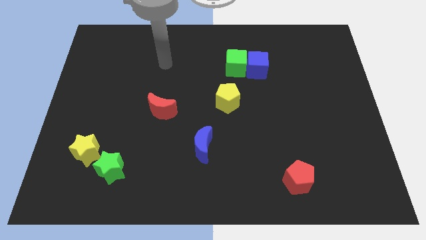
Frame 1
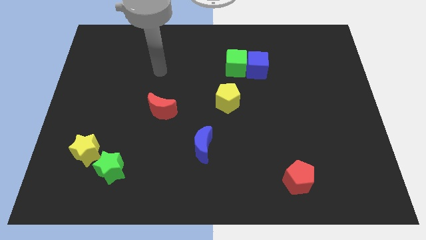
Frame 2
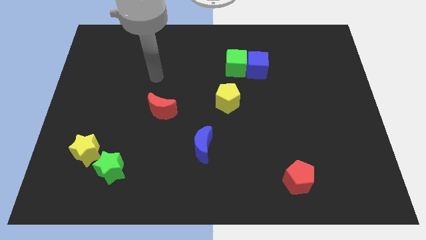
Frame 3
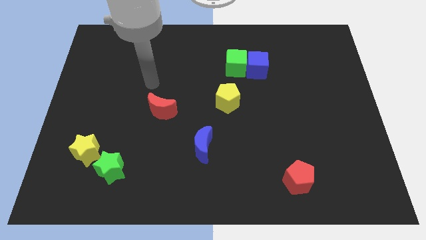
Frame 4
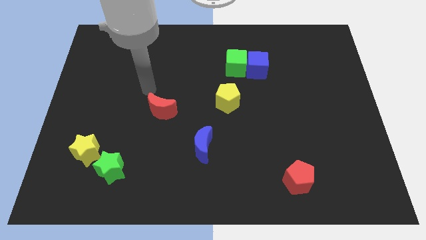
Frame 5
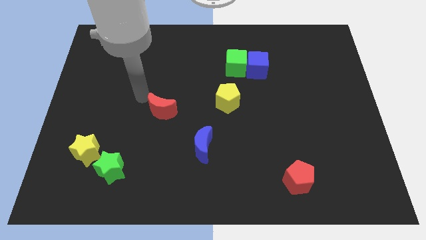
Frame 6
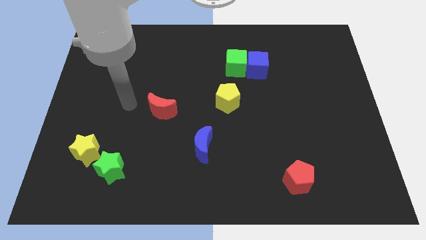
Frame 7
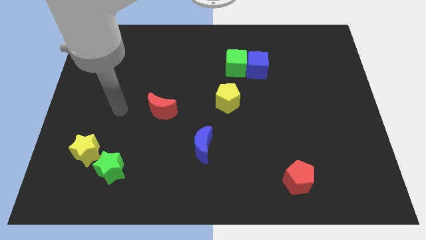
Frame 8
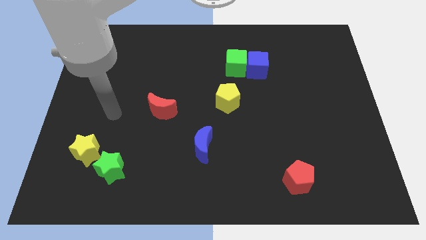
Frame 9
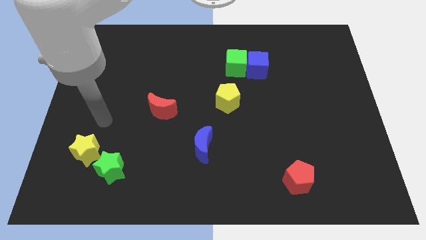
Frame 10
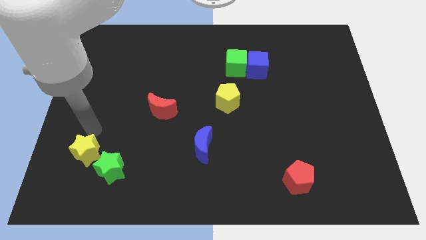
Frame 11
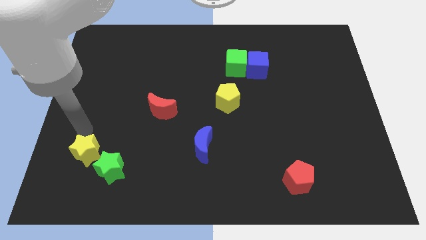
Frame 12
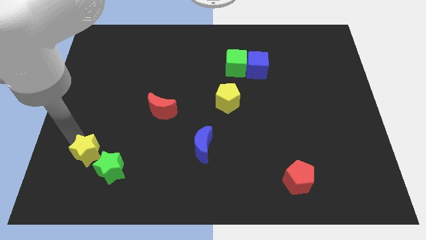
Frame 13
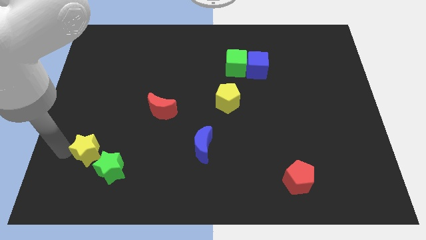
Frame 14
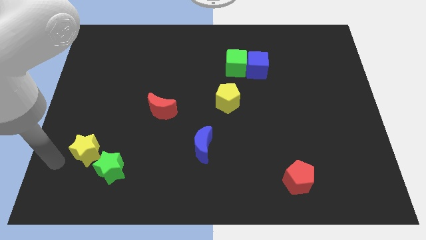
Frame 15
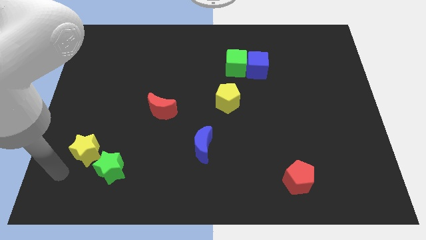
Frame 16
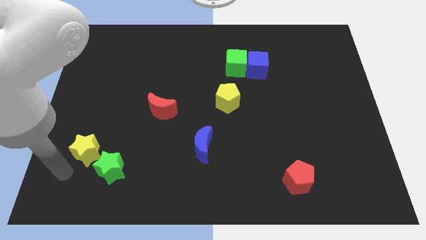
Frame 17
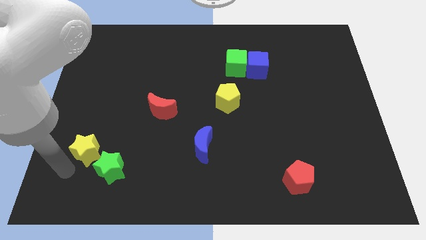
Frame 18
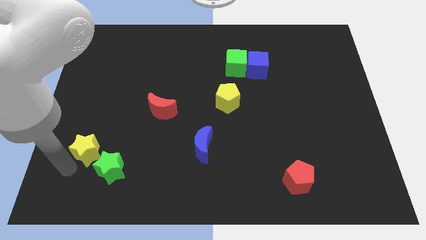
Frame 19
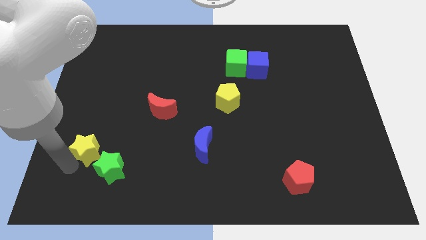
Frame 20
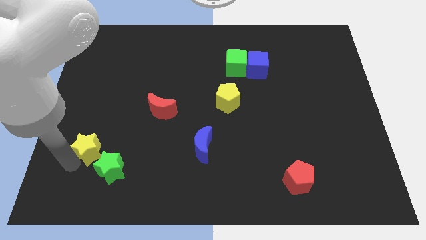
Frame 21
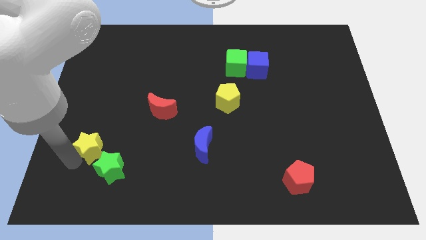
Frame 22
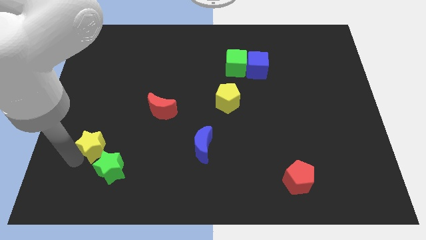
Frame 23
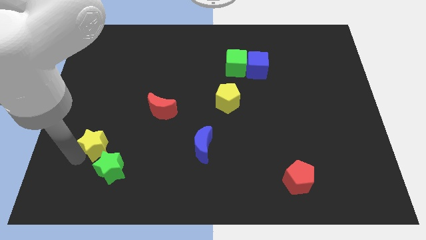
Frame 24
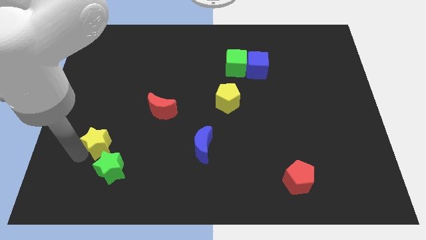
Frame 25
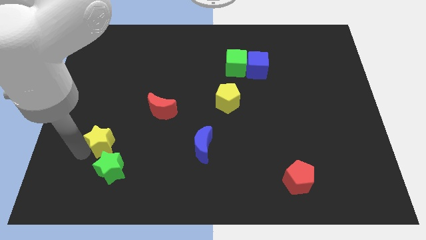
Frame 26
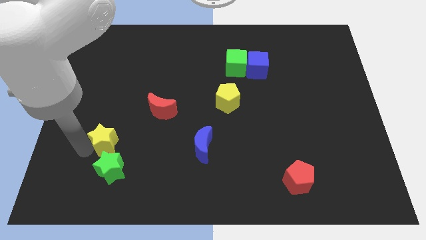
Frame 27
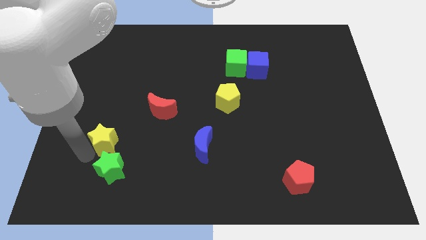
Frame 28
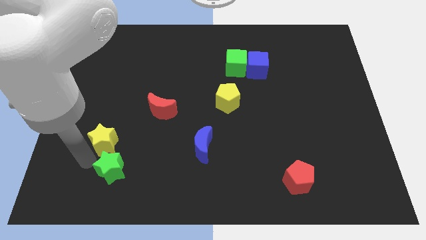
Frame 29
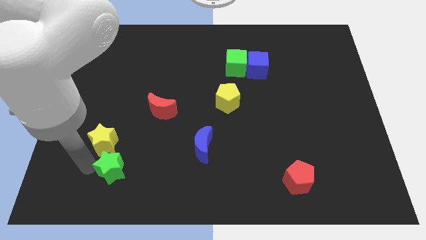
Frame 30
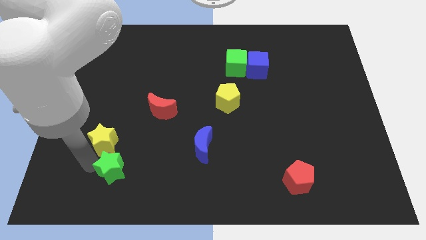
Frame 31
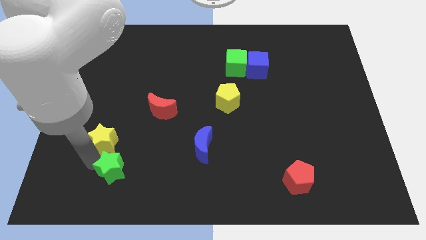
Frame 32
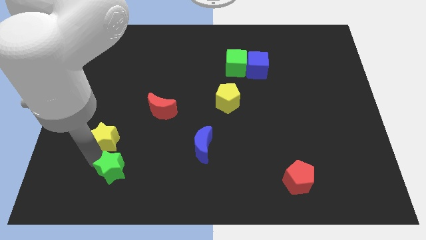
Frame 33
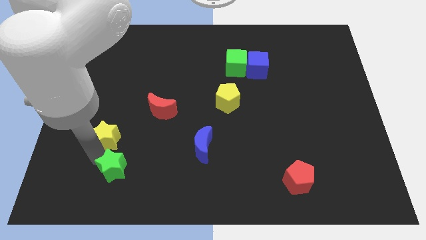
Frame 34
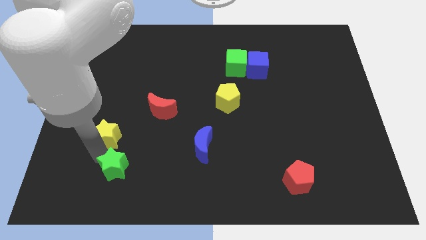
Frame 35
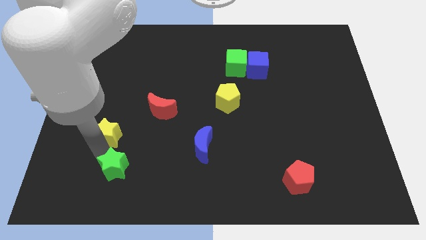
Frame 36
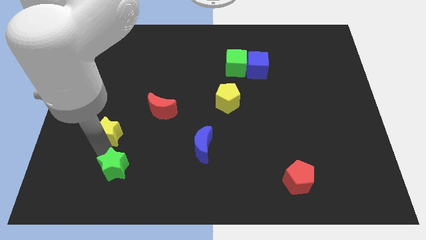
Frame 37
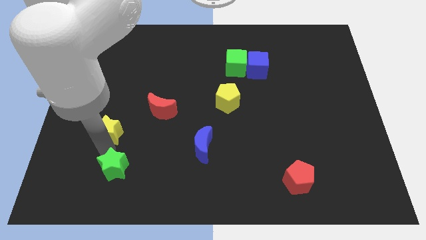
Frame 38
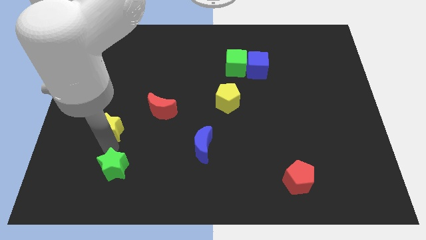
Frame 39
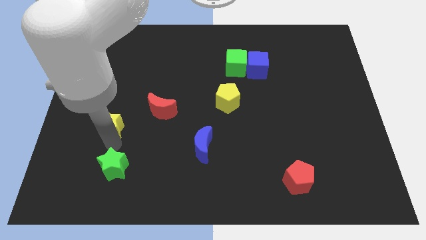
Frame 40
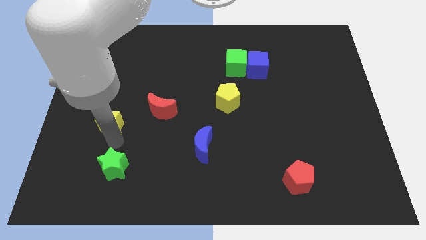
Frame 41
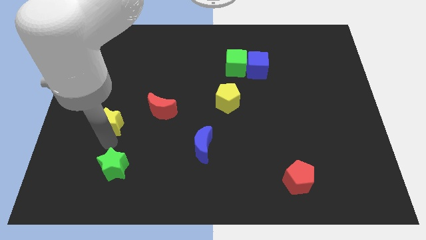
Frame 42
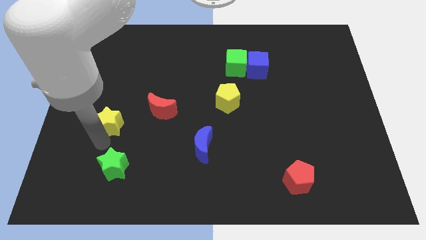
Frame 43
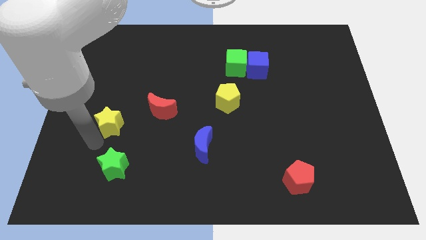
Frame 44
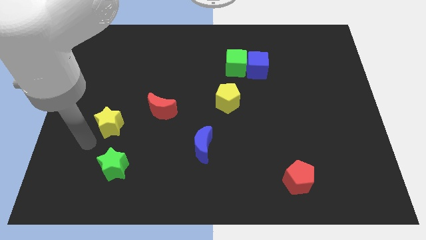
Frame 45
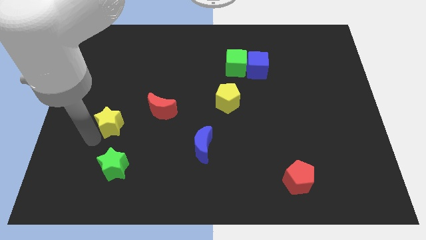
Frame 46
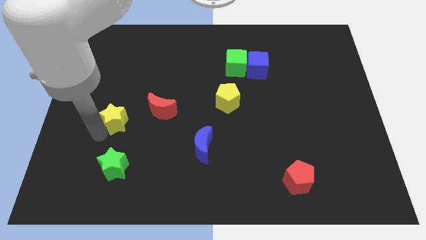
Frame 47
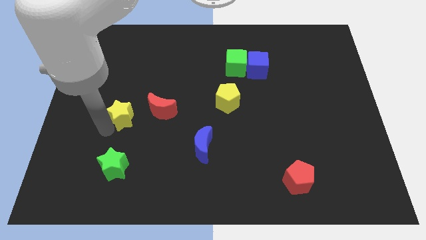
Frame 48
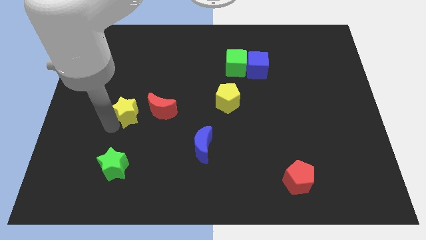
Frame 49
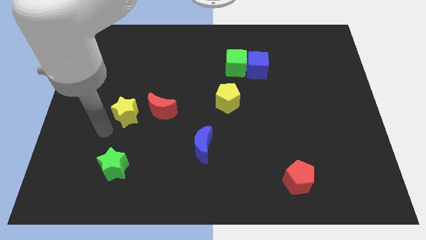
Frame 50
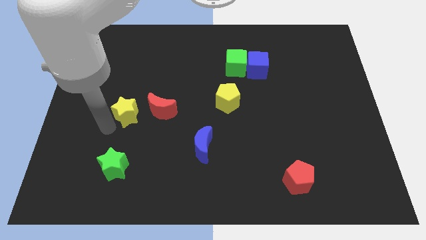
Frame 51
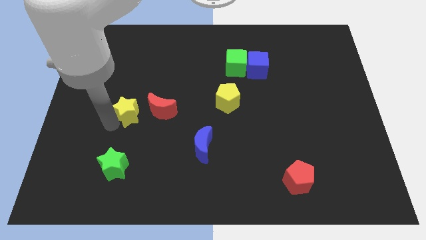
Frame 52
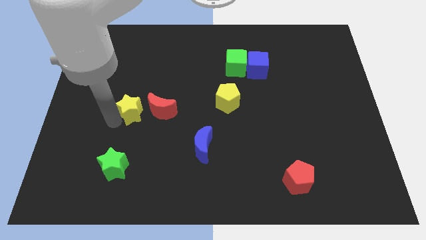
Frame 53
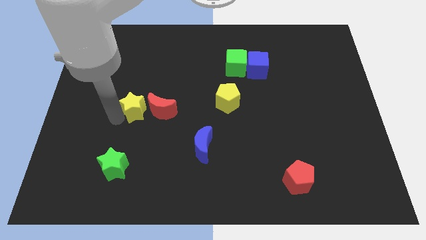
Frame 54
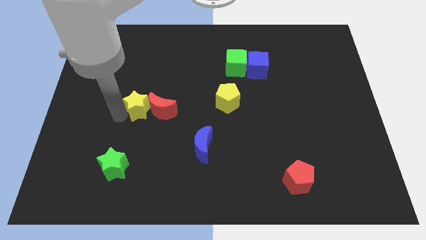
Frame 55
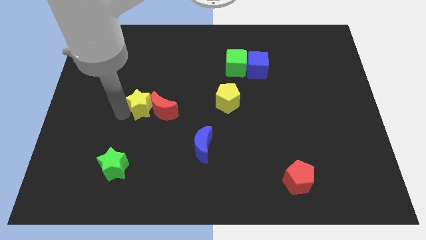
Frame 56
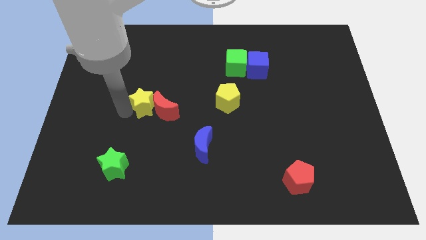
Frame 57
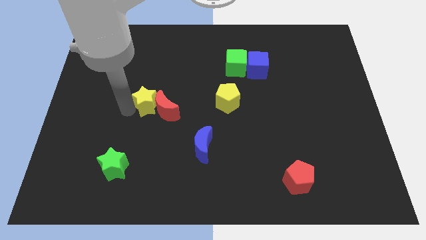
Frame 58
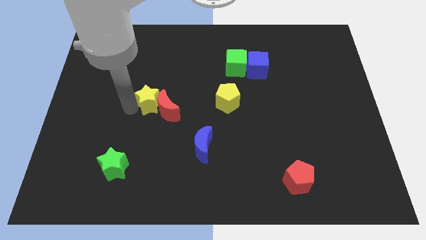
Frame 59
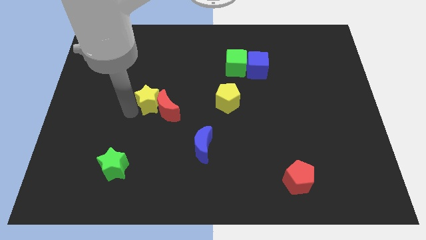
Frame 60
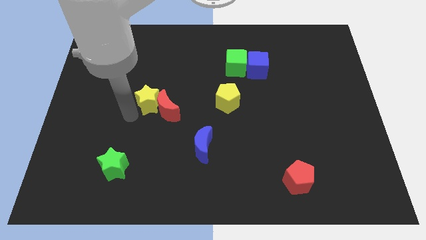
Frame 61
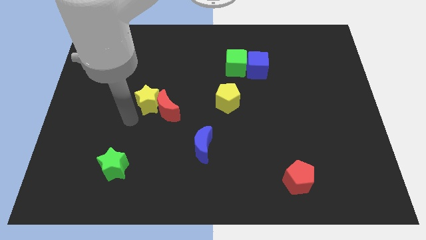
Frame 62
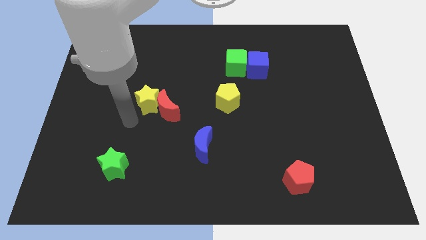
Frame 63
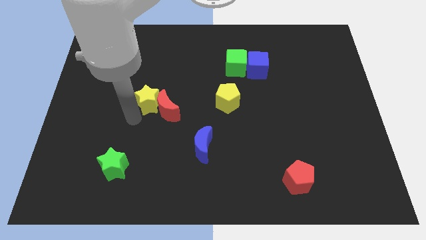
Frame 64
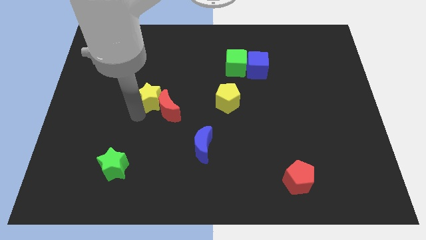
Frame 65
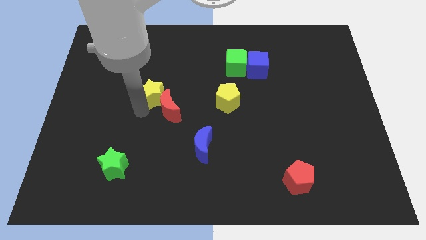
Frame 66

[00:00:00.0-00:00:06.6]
move the yellow star up and right diagonally

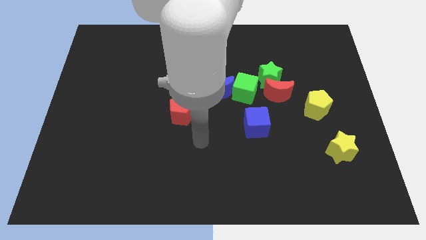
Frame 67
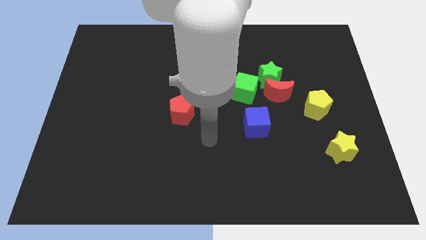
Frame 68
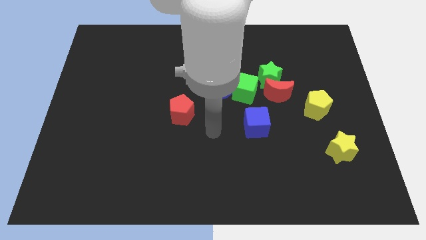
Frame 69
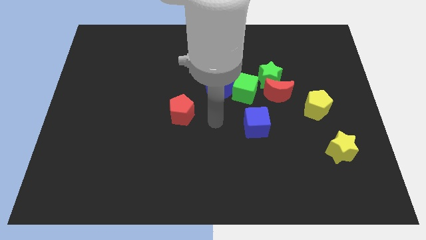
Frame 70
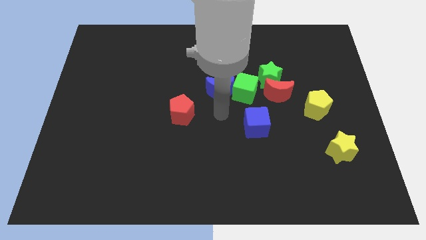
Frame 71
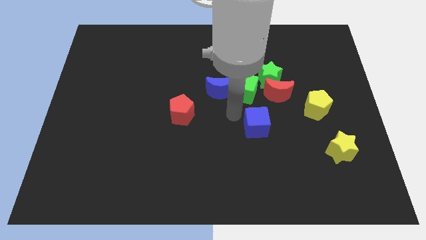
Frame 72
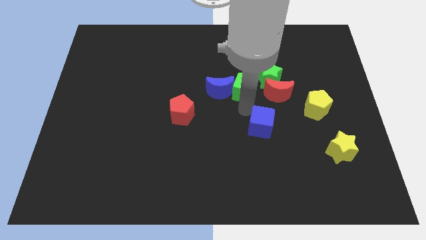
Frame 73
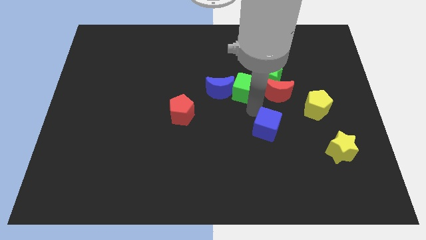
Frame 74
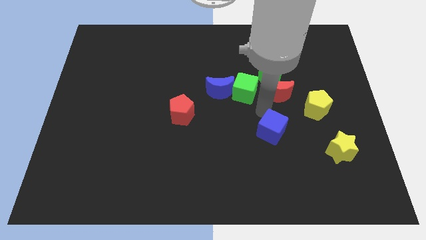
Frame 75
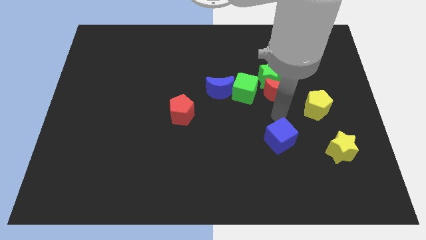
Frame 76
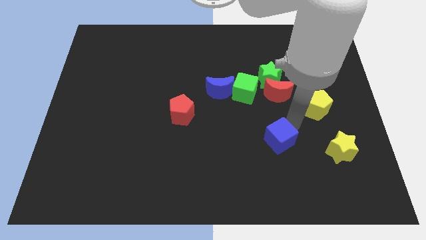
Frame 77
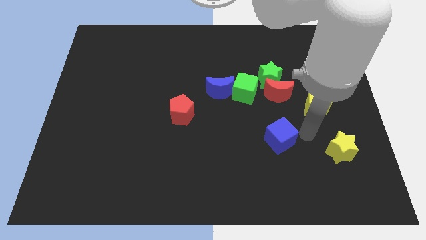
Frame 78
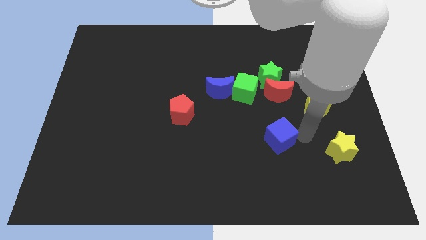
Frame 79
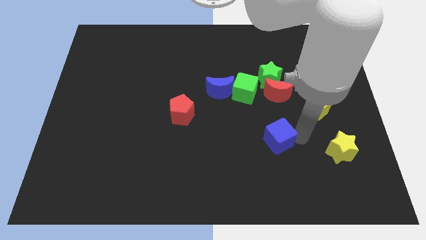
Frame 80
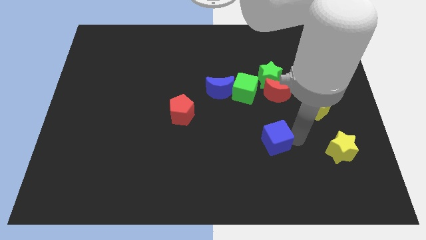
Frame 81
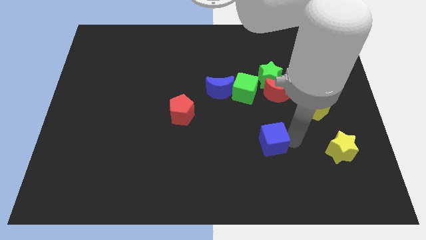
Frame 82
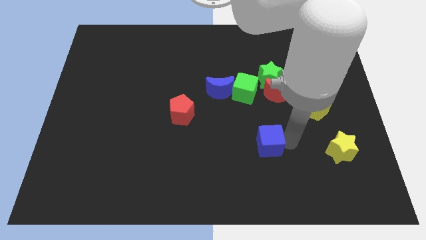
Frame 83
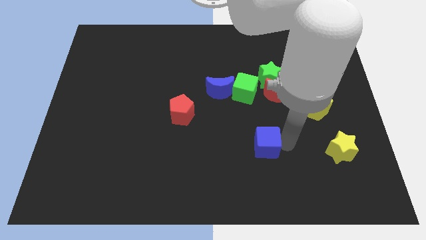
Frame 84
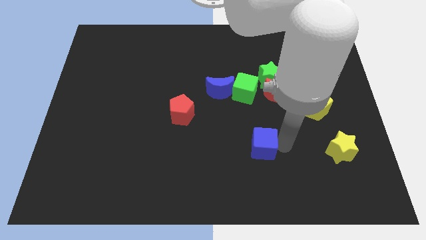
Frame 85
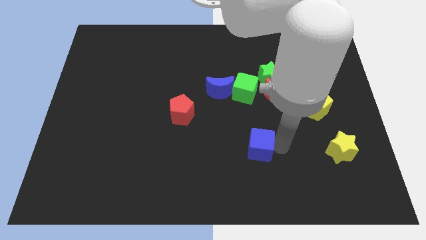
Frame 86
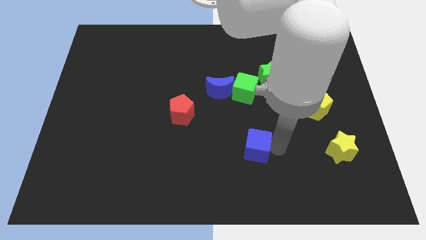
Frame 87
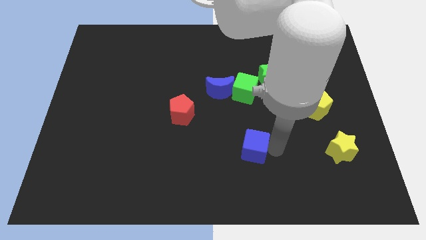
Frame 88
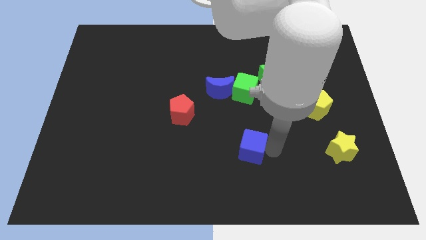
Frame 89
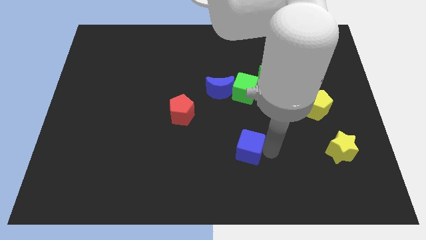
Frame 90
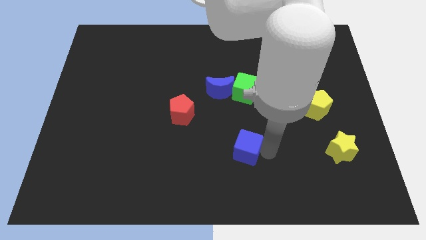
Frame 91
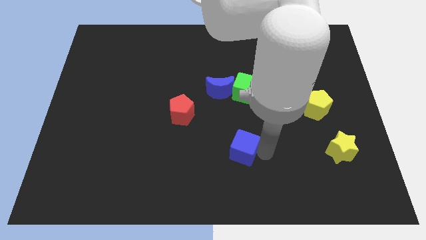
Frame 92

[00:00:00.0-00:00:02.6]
slide the blue cube slightly downwards and then to the left
